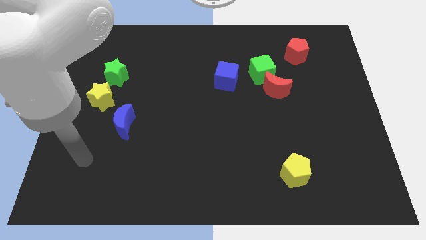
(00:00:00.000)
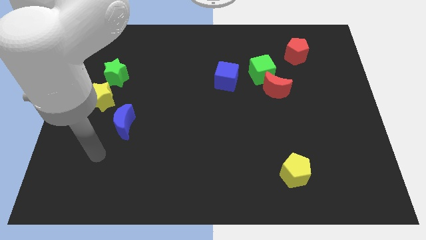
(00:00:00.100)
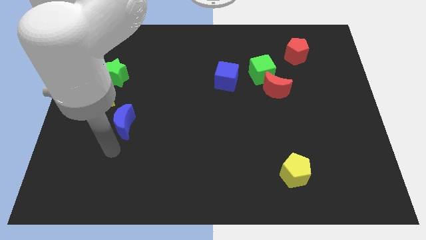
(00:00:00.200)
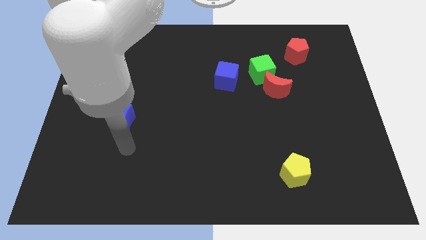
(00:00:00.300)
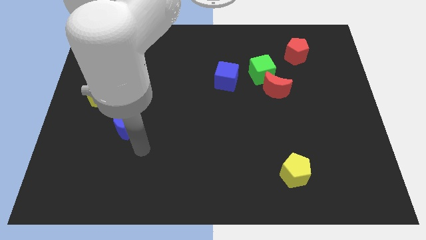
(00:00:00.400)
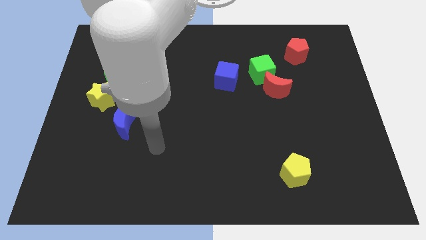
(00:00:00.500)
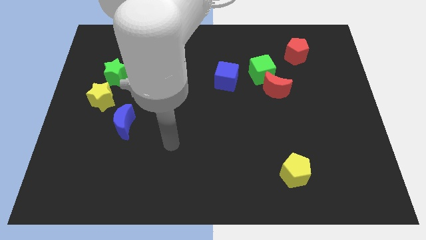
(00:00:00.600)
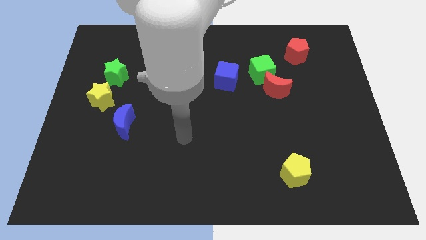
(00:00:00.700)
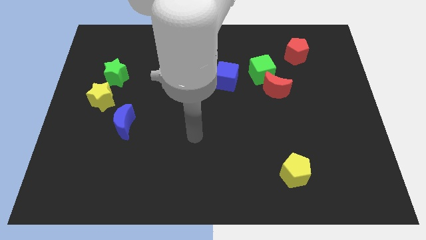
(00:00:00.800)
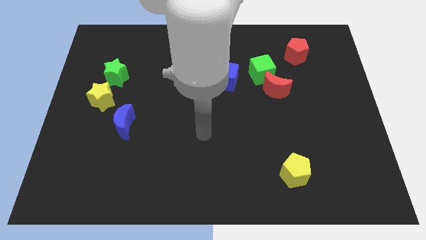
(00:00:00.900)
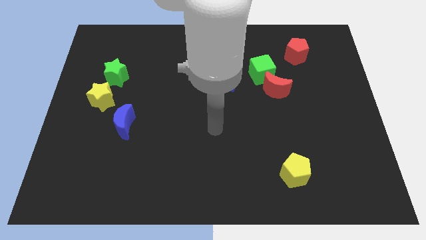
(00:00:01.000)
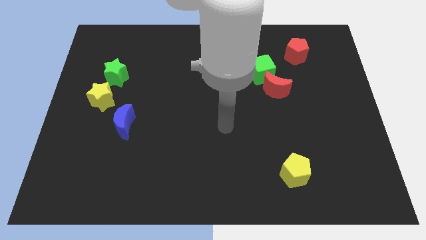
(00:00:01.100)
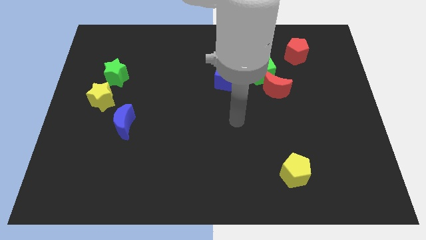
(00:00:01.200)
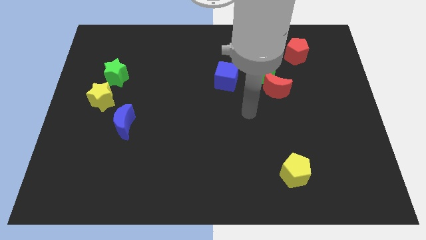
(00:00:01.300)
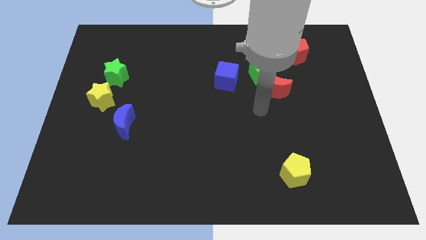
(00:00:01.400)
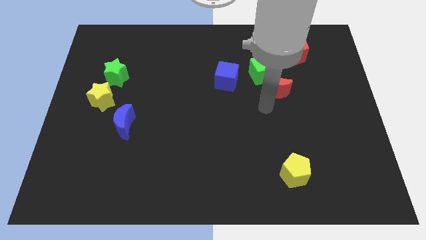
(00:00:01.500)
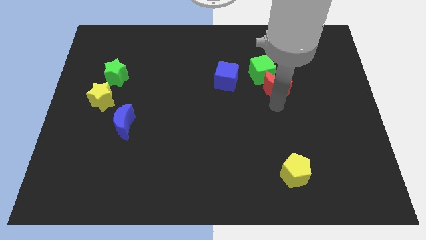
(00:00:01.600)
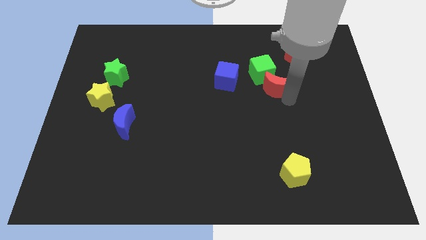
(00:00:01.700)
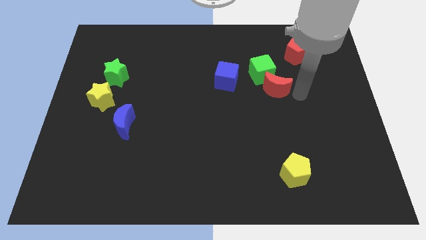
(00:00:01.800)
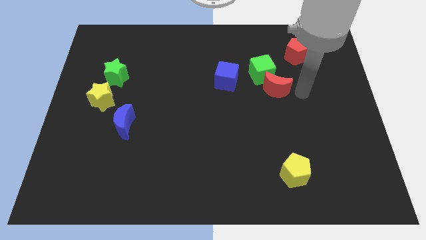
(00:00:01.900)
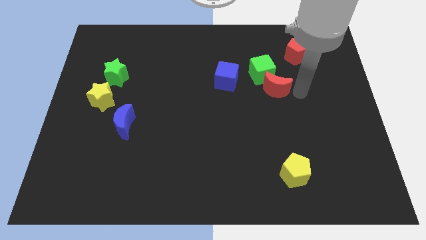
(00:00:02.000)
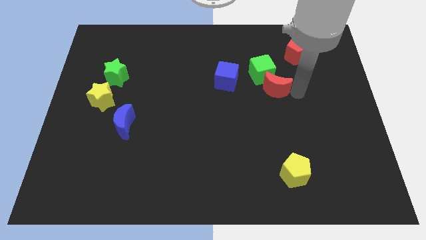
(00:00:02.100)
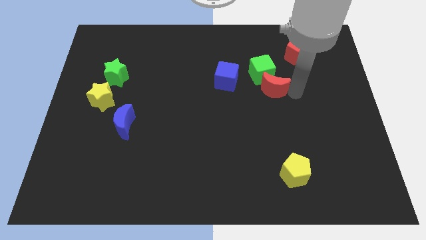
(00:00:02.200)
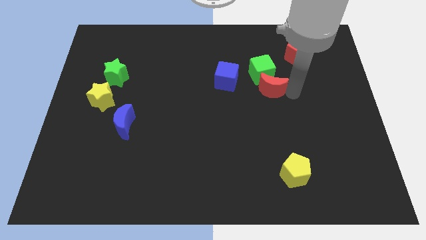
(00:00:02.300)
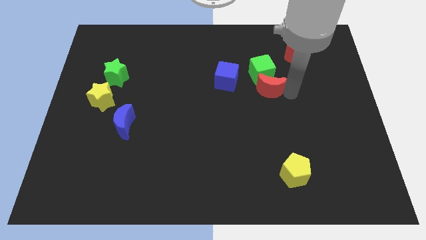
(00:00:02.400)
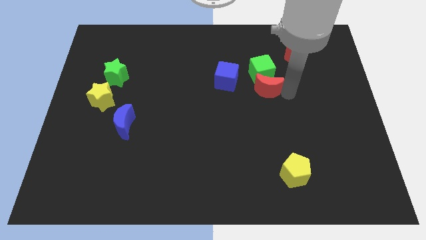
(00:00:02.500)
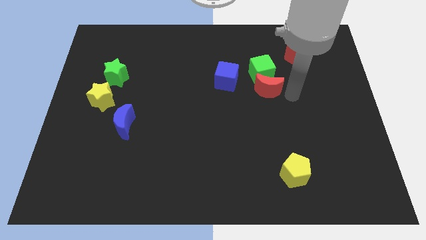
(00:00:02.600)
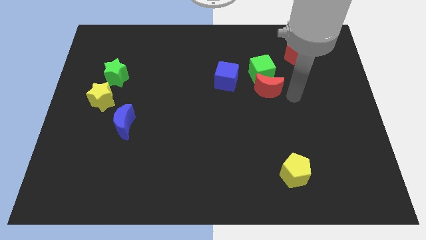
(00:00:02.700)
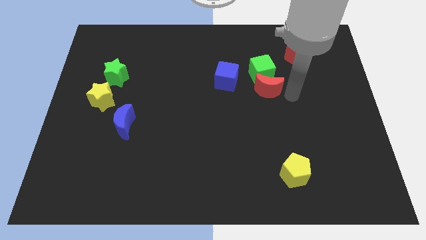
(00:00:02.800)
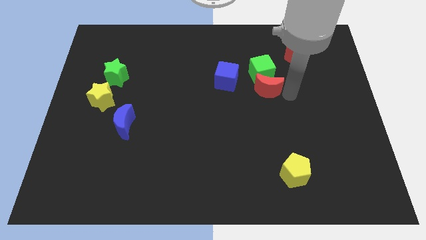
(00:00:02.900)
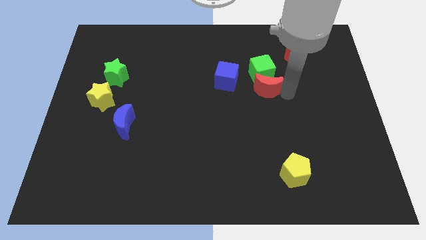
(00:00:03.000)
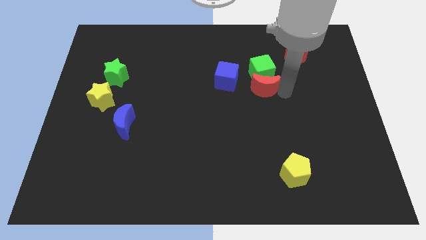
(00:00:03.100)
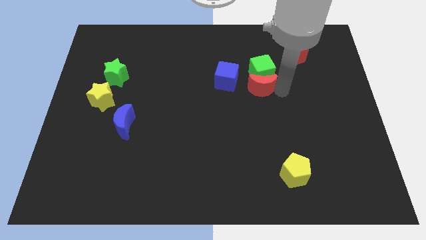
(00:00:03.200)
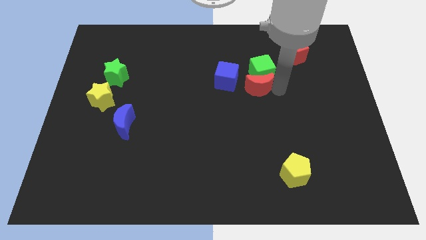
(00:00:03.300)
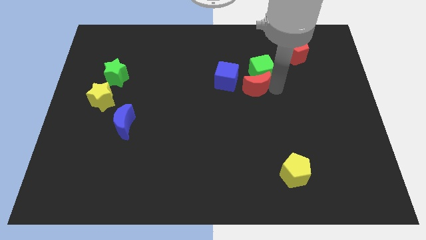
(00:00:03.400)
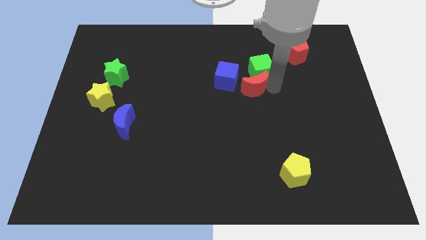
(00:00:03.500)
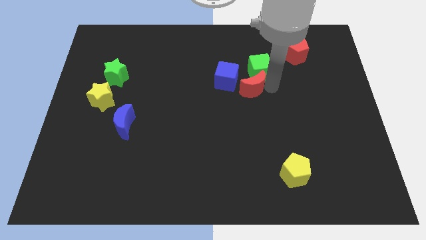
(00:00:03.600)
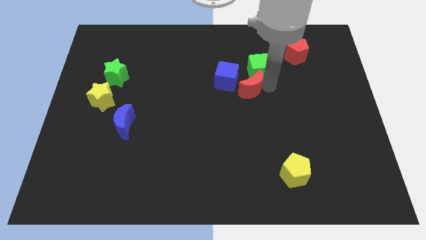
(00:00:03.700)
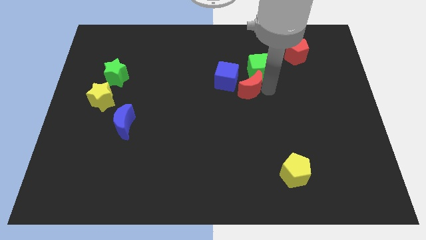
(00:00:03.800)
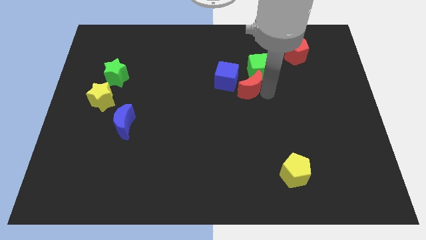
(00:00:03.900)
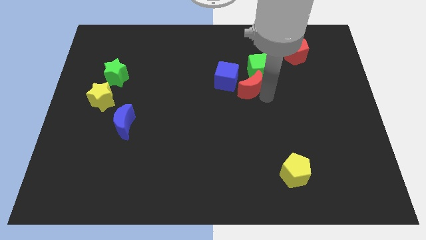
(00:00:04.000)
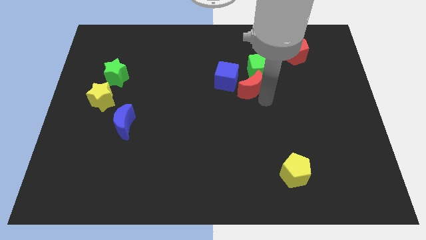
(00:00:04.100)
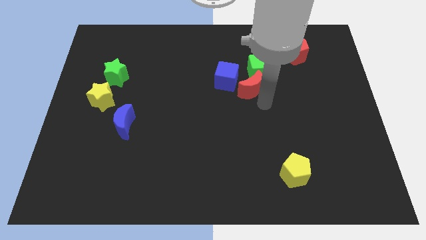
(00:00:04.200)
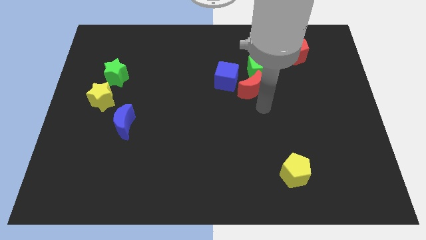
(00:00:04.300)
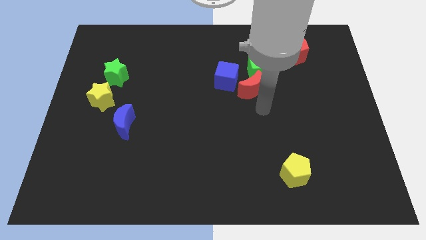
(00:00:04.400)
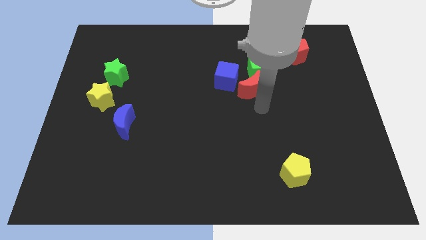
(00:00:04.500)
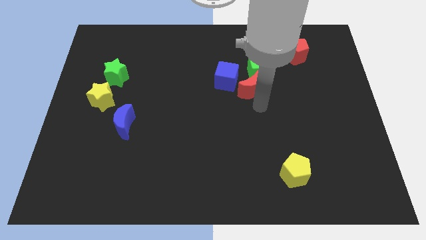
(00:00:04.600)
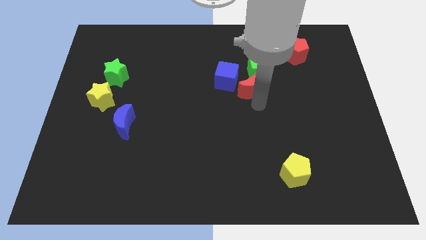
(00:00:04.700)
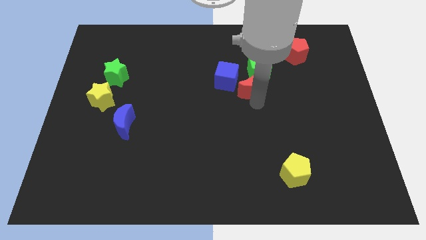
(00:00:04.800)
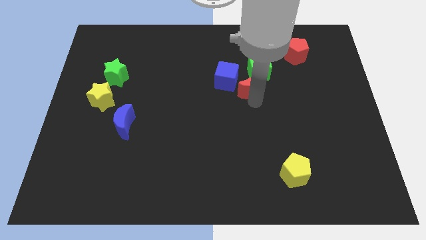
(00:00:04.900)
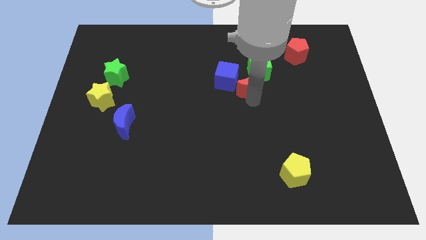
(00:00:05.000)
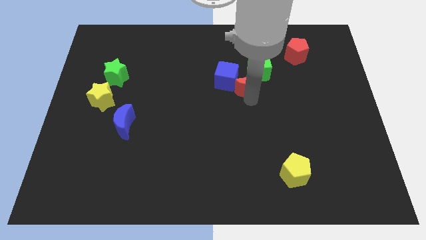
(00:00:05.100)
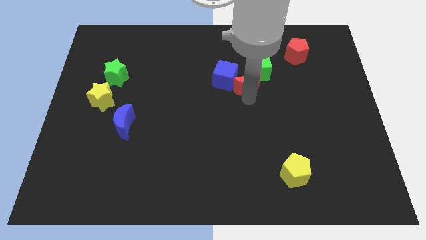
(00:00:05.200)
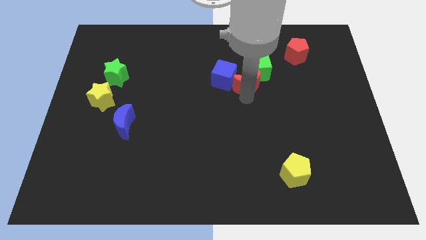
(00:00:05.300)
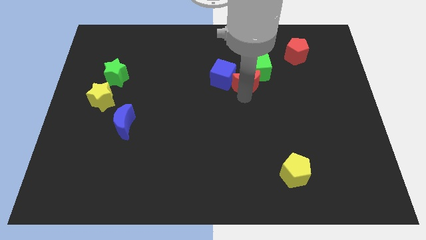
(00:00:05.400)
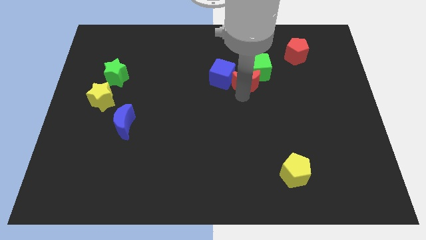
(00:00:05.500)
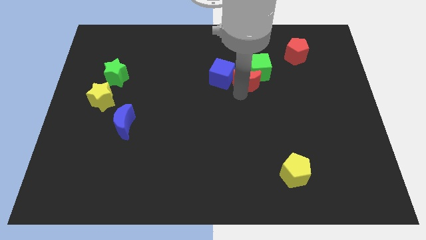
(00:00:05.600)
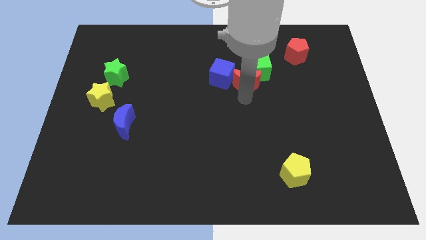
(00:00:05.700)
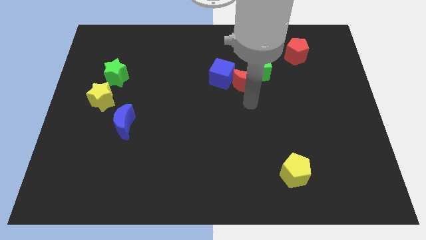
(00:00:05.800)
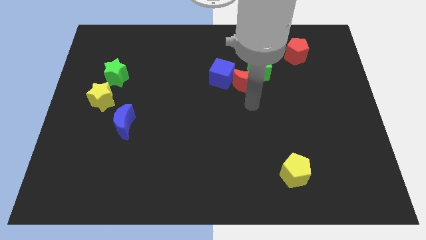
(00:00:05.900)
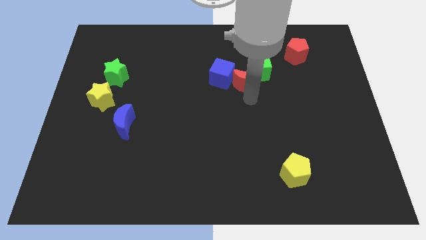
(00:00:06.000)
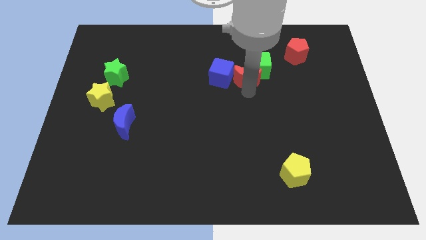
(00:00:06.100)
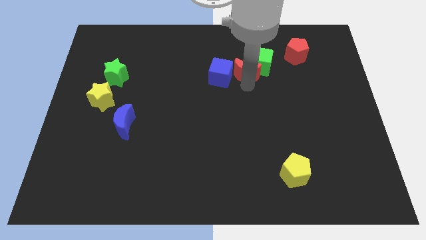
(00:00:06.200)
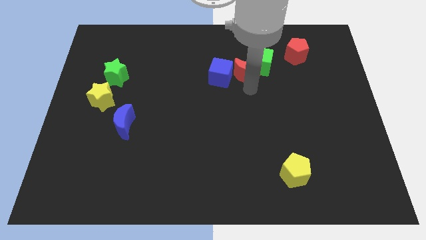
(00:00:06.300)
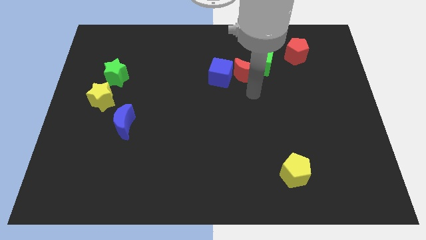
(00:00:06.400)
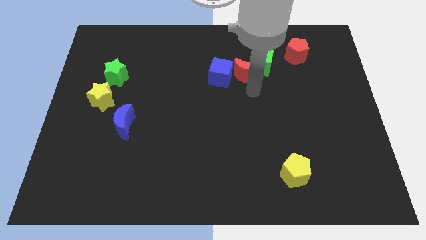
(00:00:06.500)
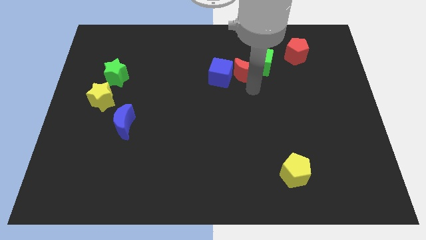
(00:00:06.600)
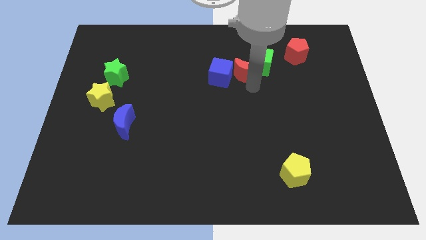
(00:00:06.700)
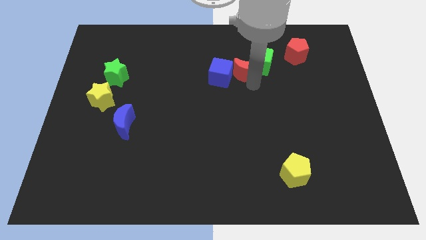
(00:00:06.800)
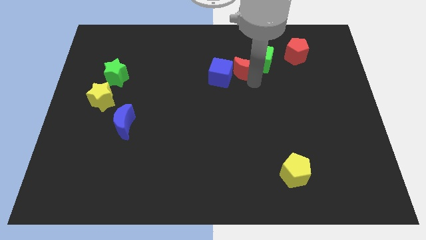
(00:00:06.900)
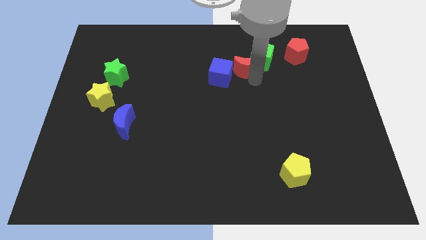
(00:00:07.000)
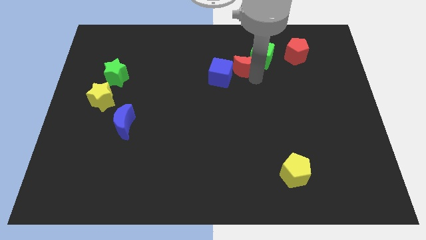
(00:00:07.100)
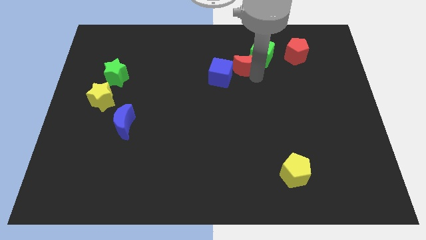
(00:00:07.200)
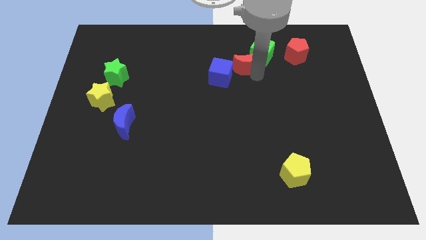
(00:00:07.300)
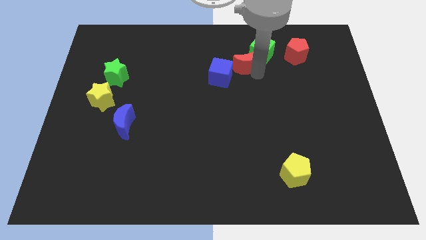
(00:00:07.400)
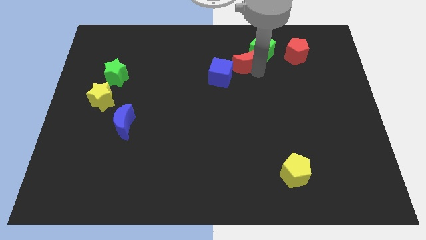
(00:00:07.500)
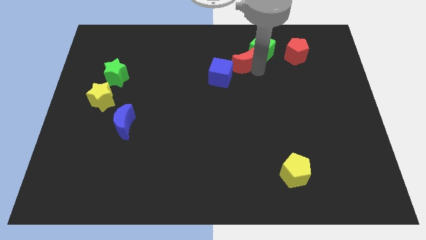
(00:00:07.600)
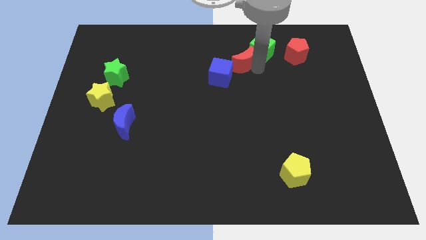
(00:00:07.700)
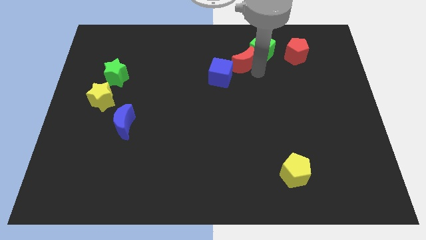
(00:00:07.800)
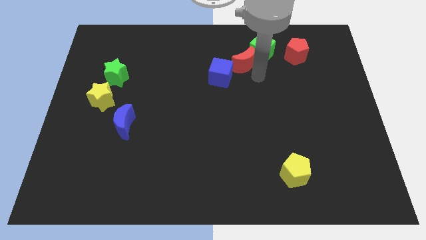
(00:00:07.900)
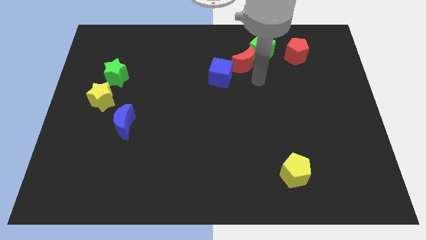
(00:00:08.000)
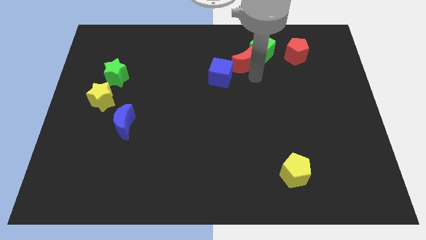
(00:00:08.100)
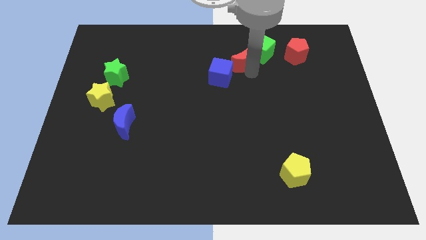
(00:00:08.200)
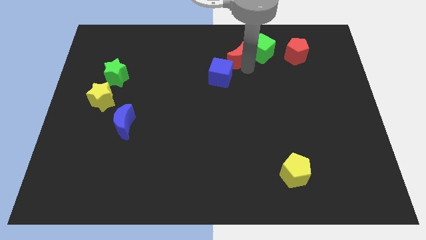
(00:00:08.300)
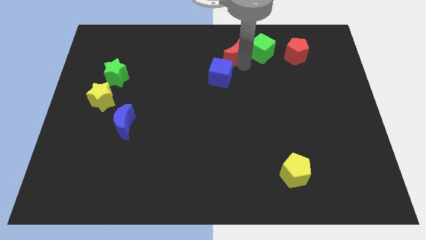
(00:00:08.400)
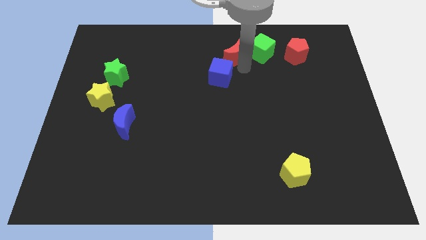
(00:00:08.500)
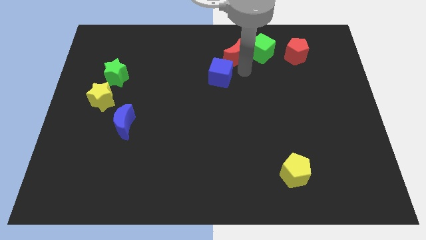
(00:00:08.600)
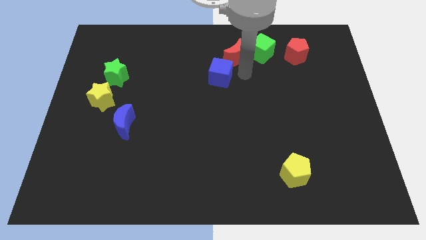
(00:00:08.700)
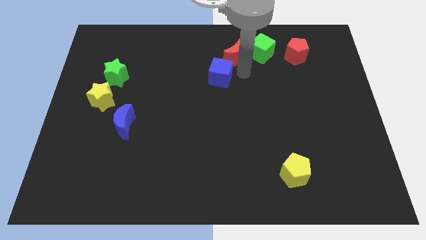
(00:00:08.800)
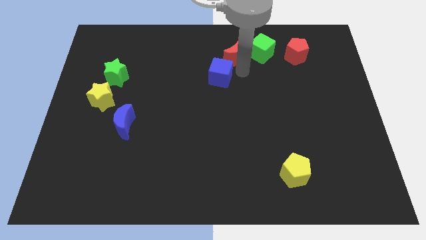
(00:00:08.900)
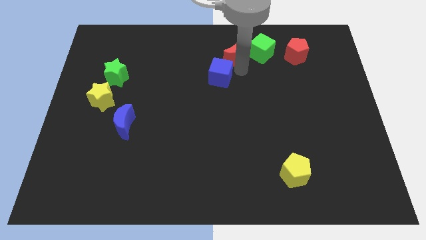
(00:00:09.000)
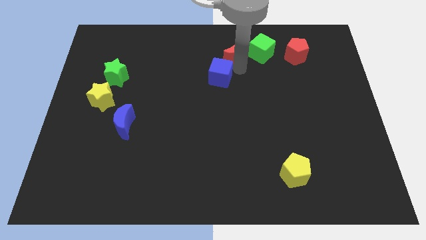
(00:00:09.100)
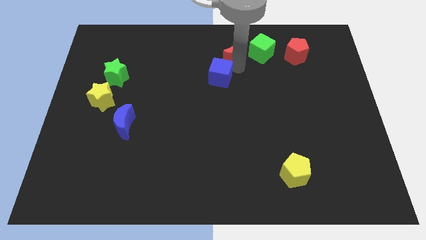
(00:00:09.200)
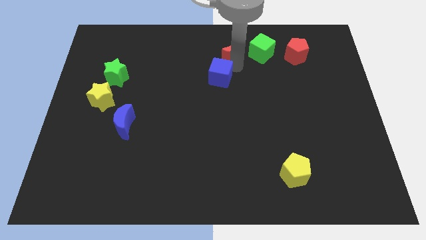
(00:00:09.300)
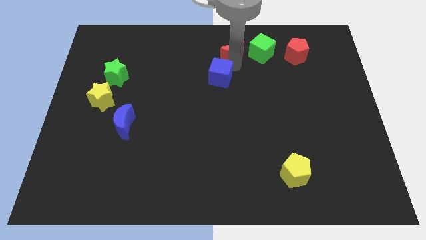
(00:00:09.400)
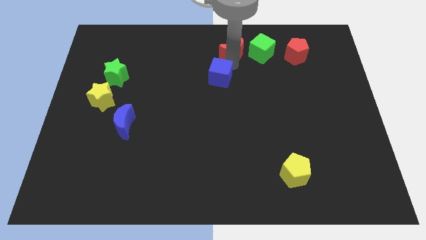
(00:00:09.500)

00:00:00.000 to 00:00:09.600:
move the red moon to the towards your base
